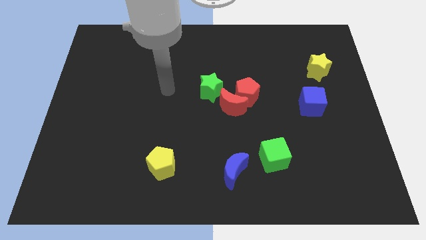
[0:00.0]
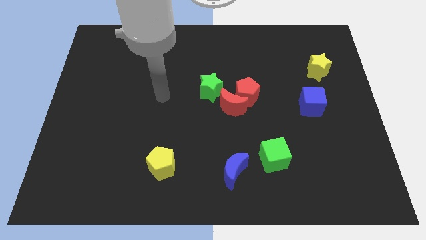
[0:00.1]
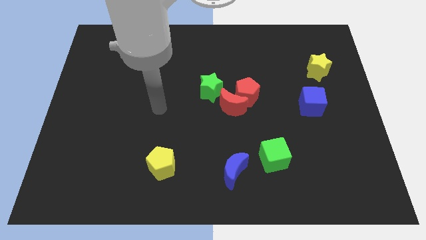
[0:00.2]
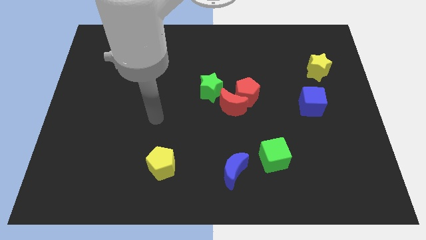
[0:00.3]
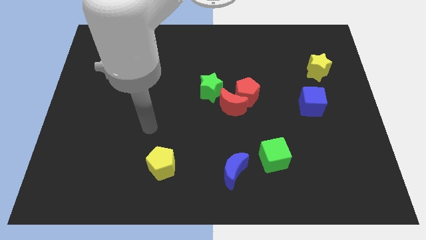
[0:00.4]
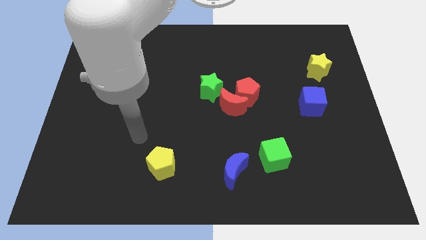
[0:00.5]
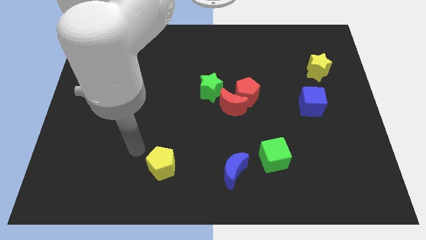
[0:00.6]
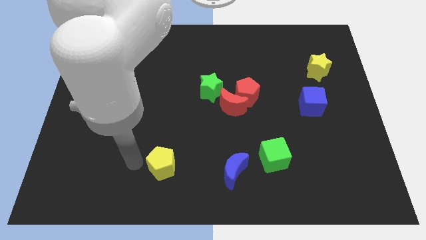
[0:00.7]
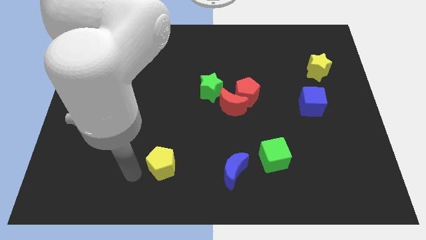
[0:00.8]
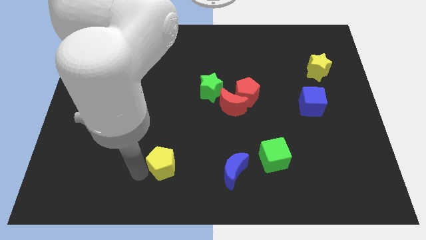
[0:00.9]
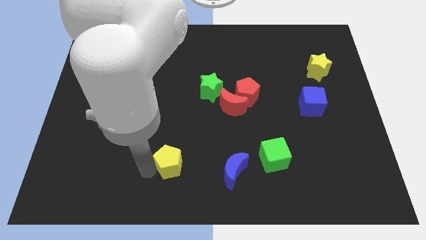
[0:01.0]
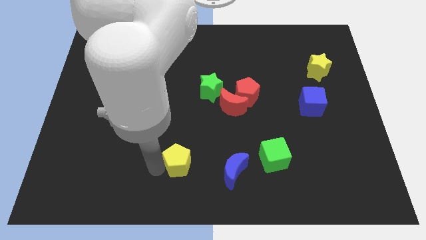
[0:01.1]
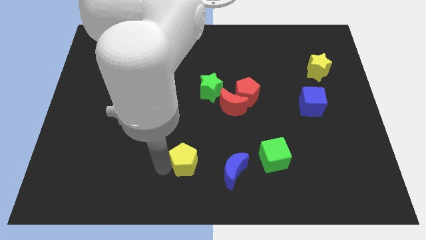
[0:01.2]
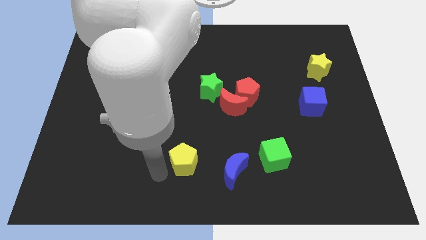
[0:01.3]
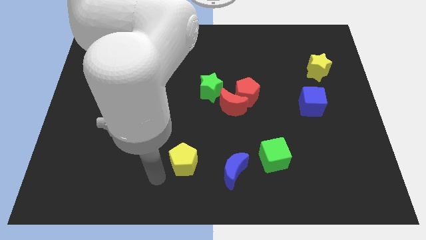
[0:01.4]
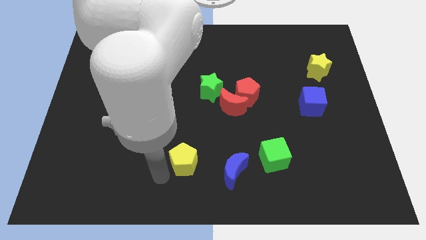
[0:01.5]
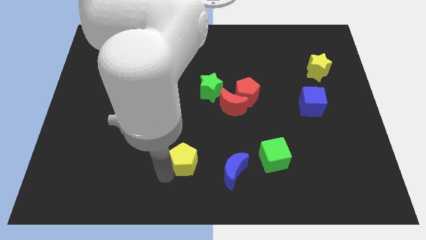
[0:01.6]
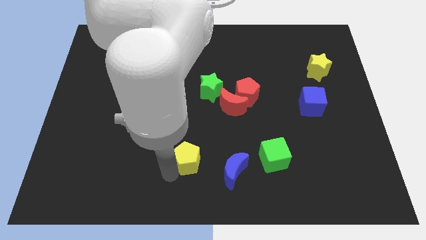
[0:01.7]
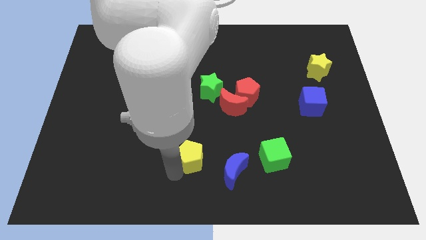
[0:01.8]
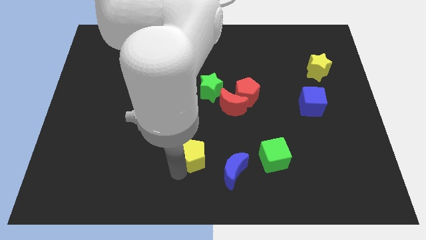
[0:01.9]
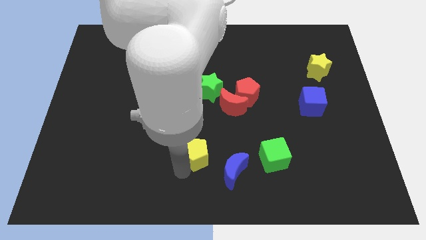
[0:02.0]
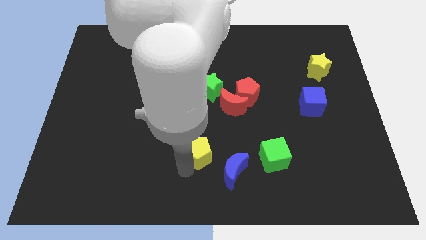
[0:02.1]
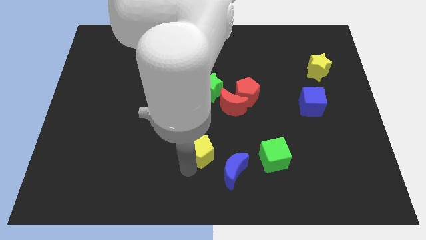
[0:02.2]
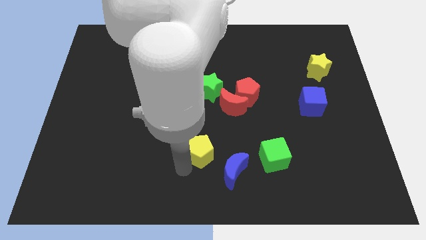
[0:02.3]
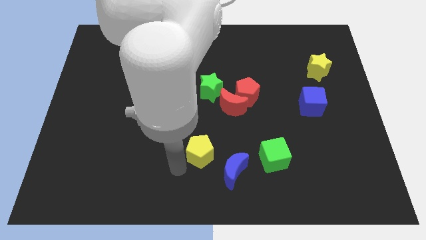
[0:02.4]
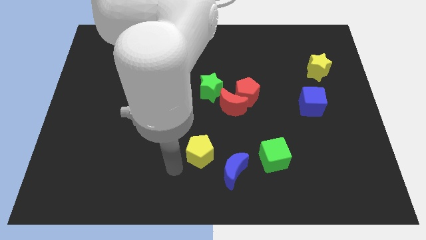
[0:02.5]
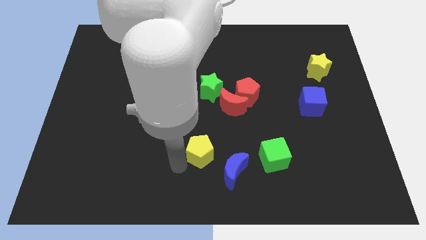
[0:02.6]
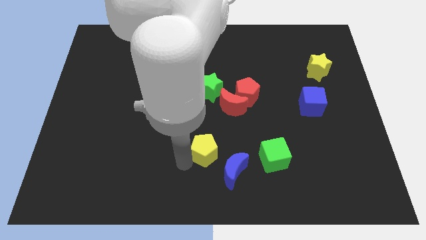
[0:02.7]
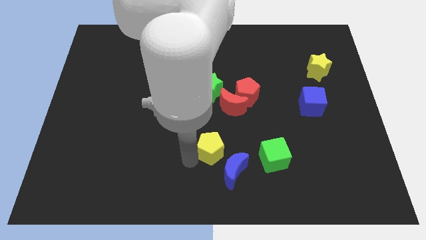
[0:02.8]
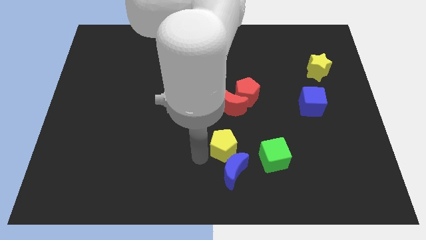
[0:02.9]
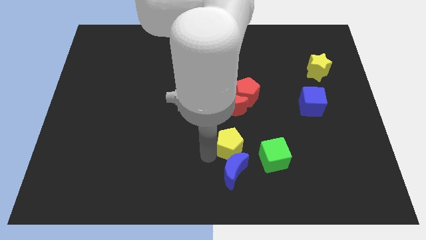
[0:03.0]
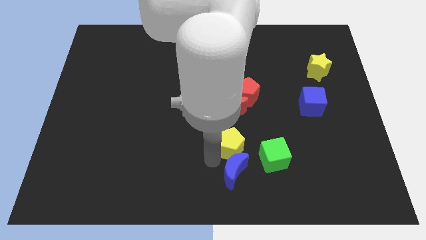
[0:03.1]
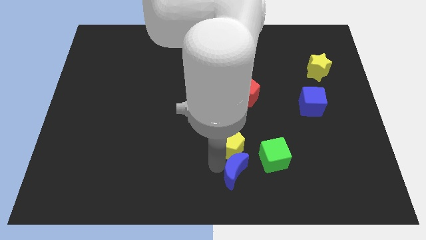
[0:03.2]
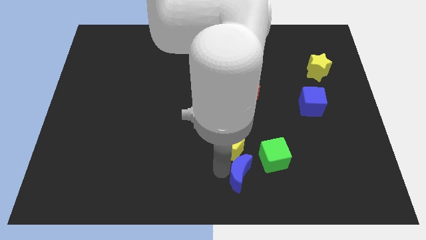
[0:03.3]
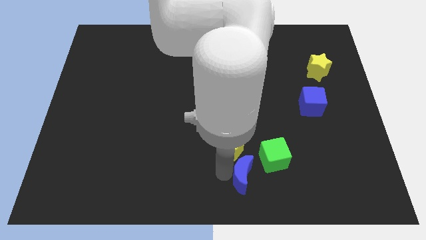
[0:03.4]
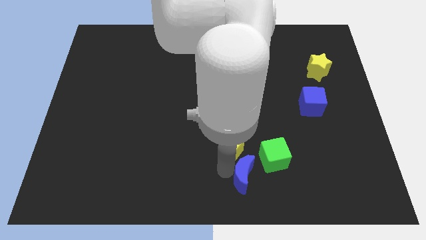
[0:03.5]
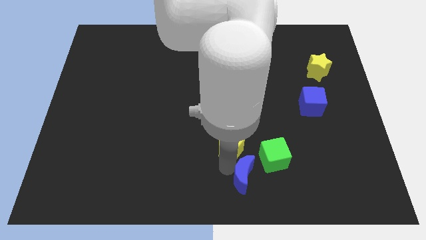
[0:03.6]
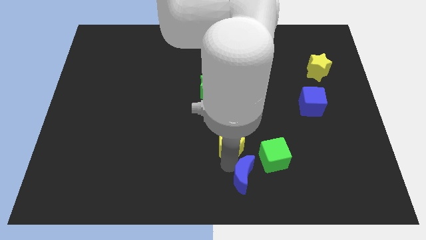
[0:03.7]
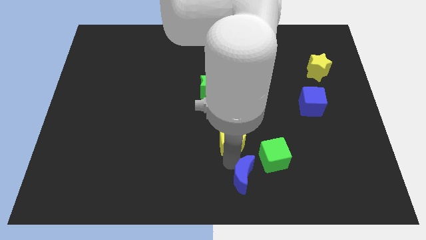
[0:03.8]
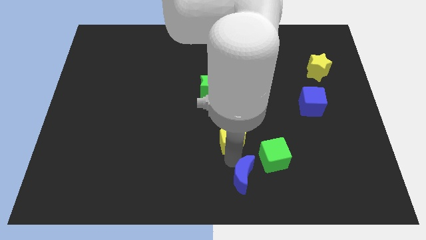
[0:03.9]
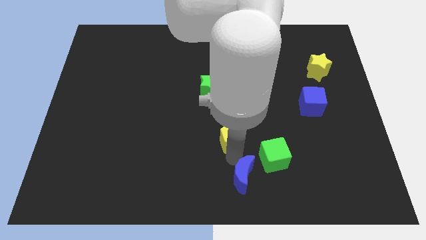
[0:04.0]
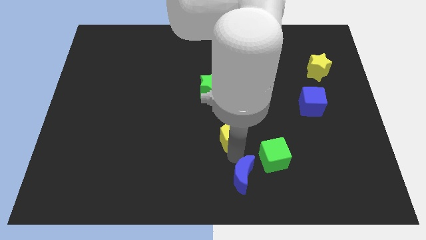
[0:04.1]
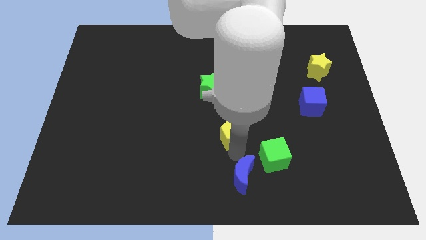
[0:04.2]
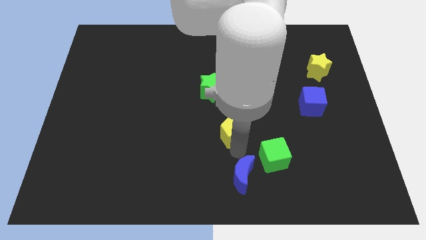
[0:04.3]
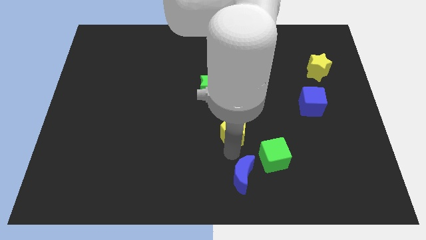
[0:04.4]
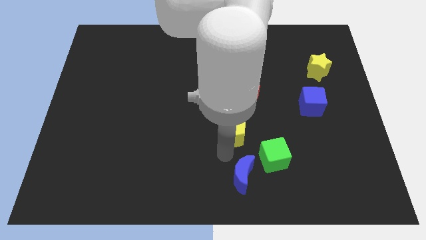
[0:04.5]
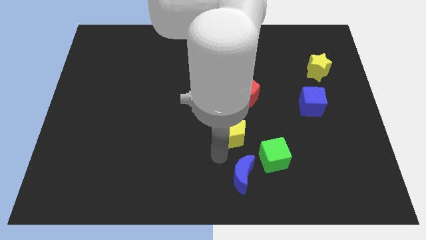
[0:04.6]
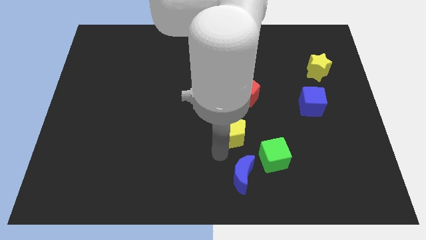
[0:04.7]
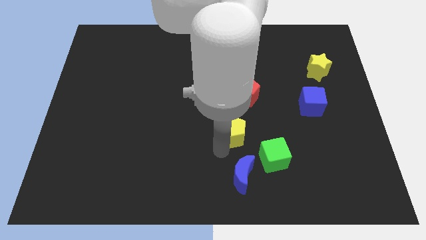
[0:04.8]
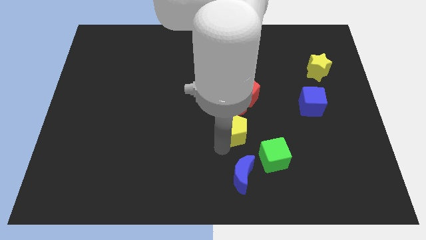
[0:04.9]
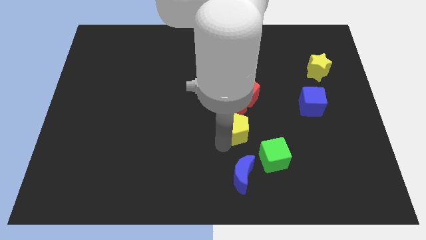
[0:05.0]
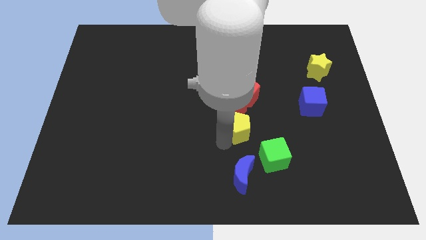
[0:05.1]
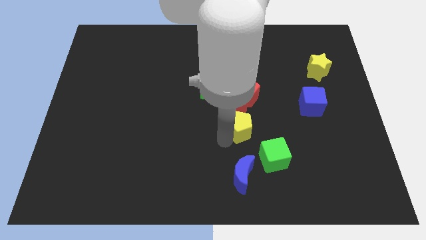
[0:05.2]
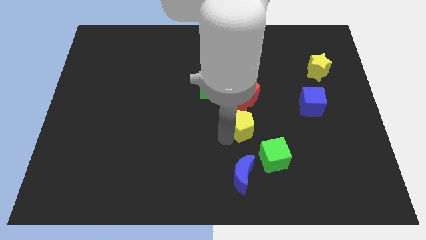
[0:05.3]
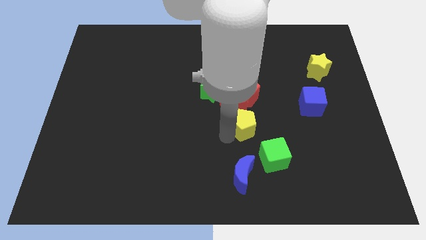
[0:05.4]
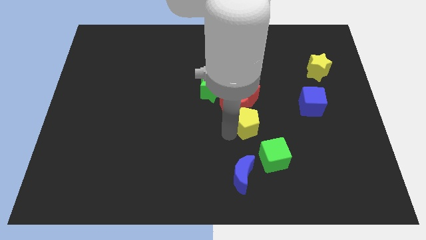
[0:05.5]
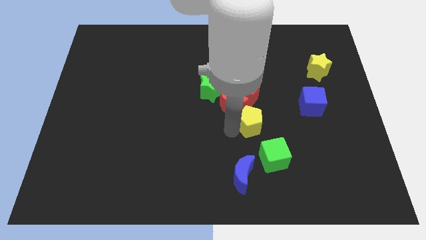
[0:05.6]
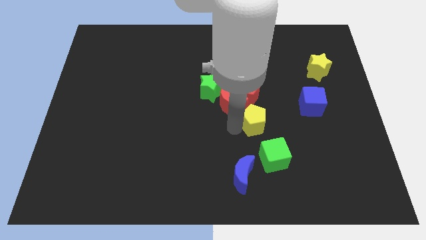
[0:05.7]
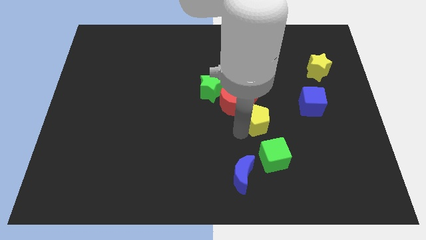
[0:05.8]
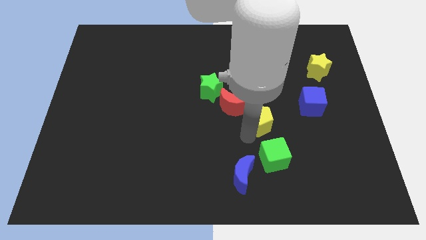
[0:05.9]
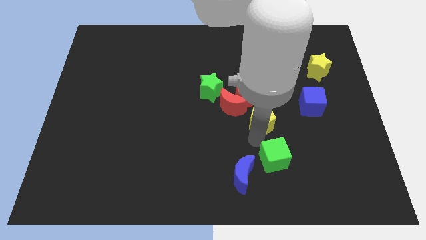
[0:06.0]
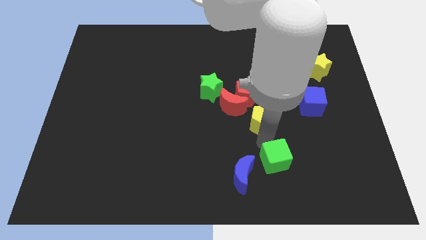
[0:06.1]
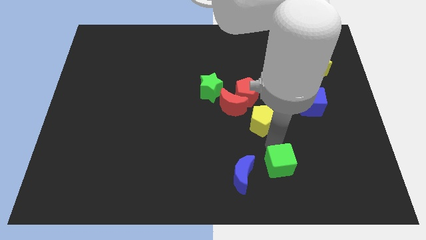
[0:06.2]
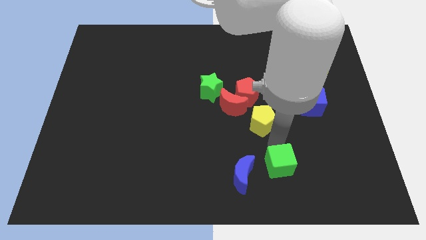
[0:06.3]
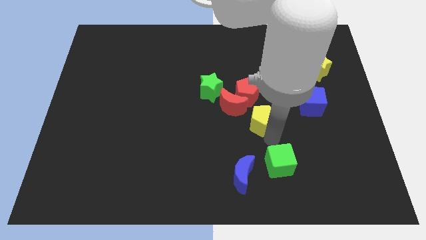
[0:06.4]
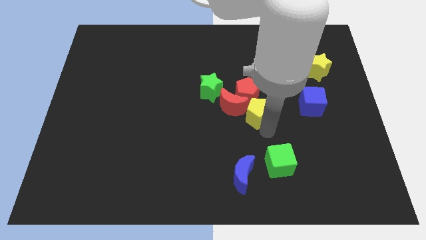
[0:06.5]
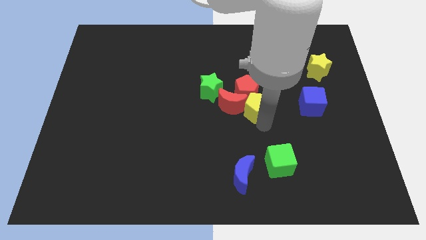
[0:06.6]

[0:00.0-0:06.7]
move the yellow pentagon close to the red pentagon
